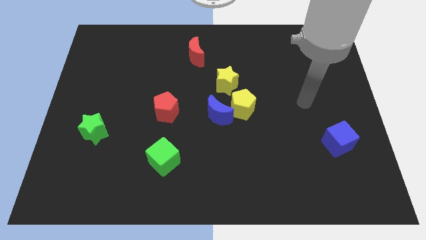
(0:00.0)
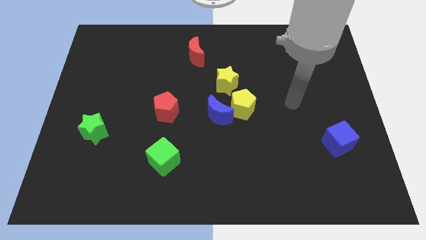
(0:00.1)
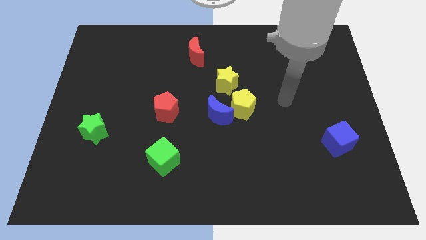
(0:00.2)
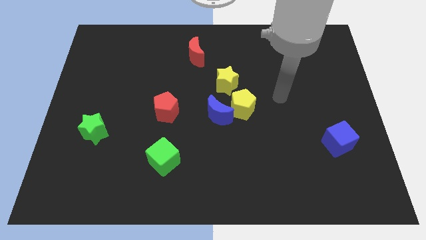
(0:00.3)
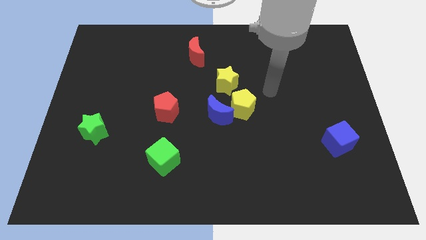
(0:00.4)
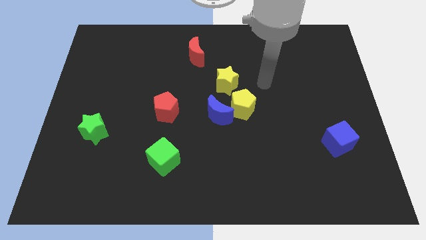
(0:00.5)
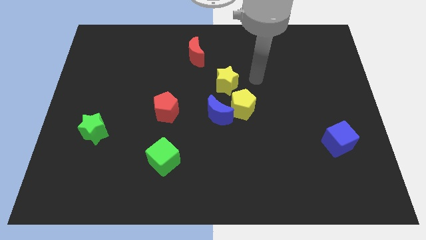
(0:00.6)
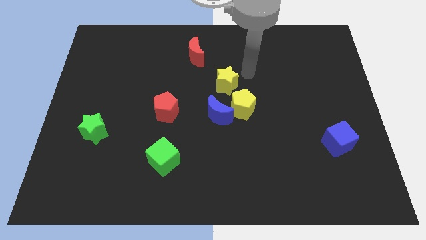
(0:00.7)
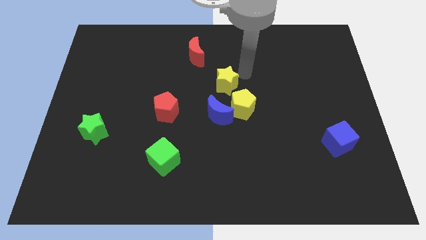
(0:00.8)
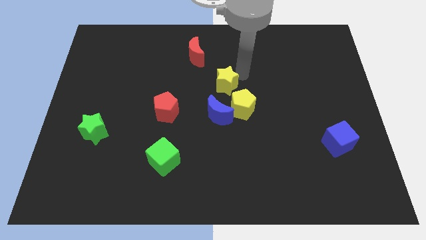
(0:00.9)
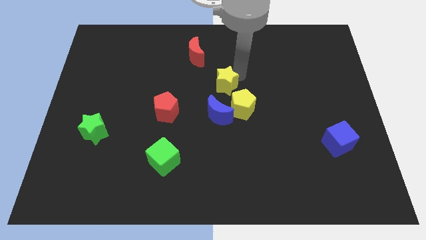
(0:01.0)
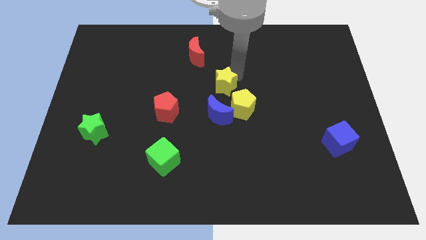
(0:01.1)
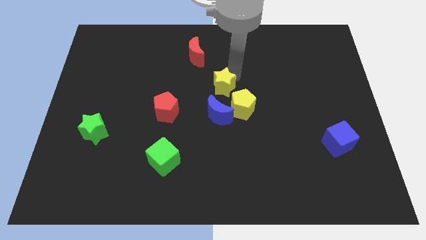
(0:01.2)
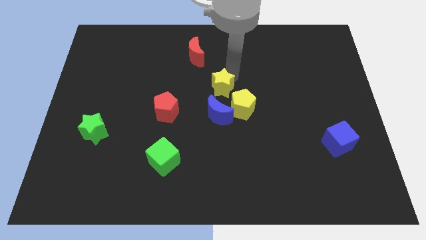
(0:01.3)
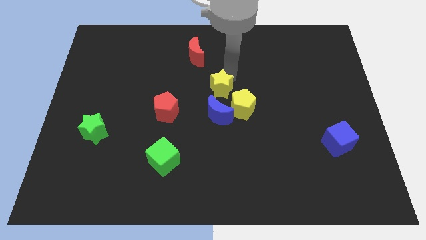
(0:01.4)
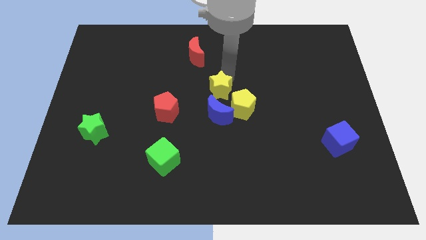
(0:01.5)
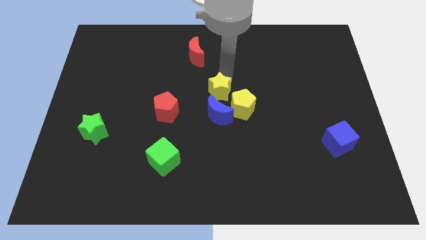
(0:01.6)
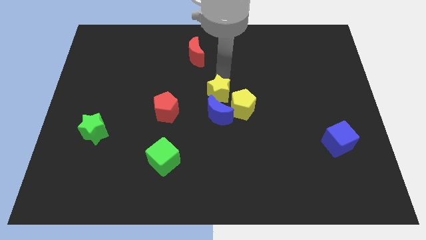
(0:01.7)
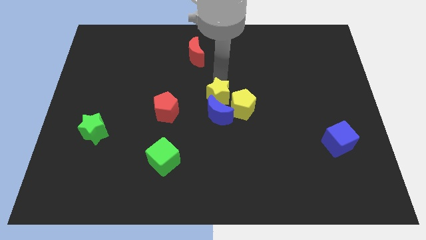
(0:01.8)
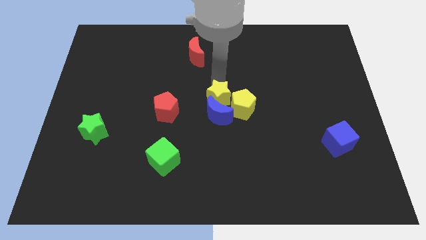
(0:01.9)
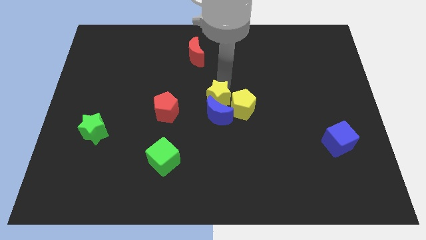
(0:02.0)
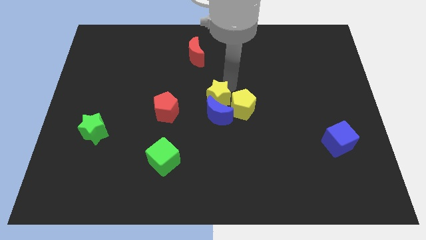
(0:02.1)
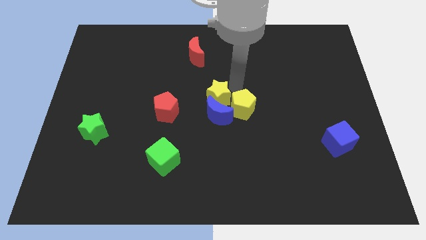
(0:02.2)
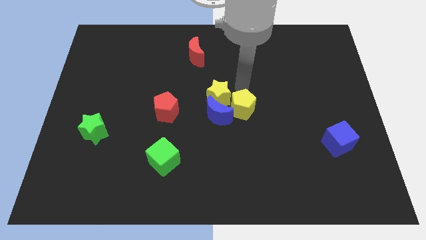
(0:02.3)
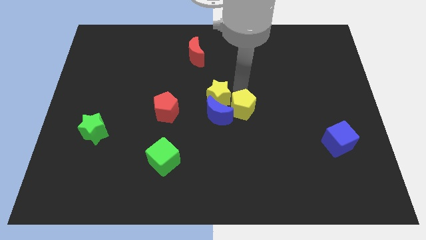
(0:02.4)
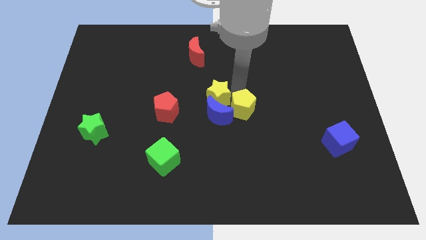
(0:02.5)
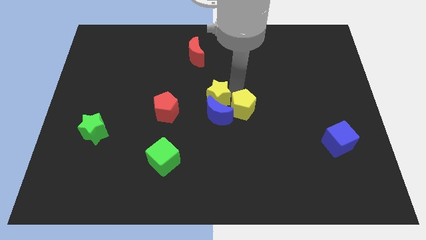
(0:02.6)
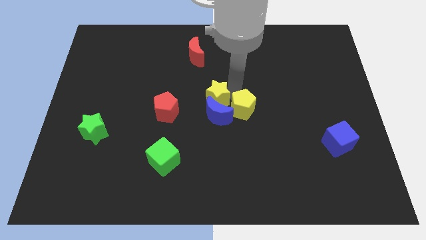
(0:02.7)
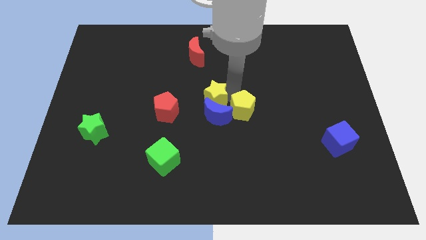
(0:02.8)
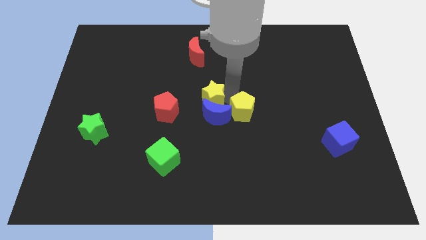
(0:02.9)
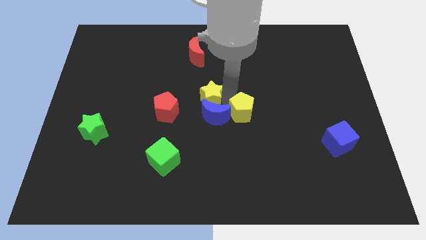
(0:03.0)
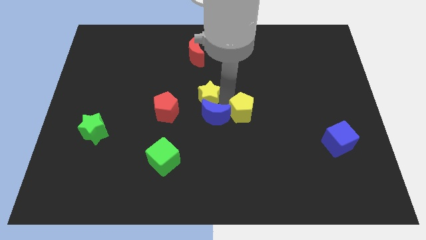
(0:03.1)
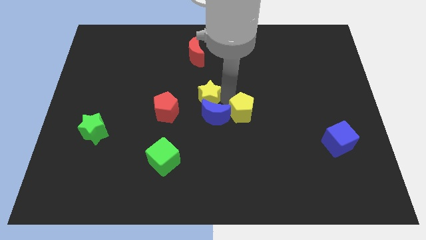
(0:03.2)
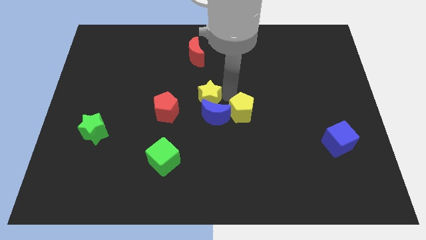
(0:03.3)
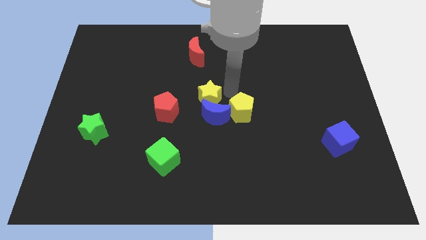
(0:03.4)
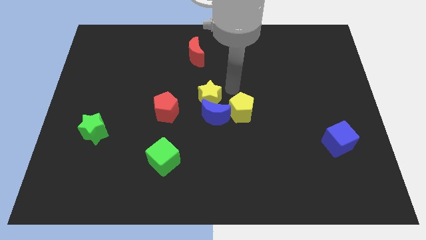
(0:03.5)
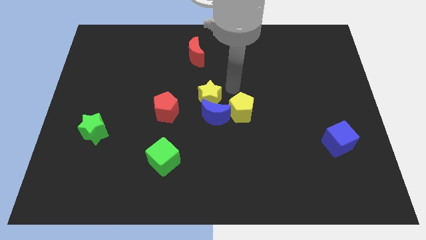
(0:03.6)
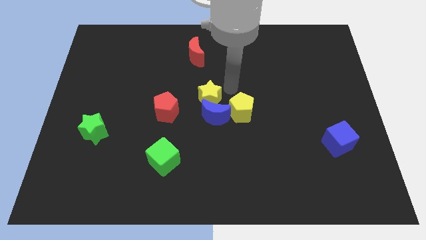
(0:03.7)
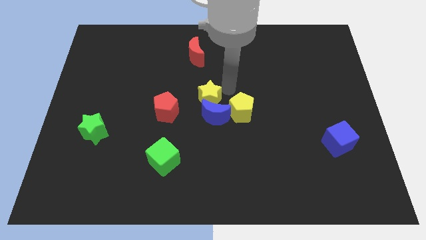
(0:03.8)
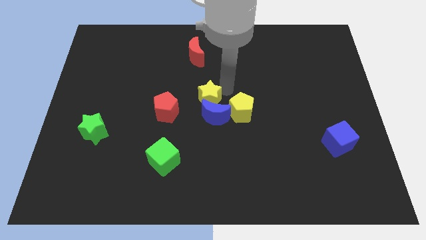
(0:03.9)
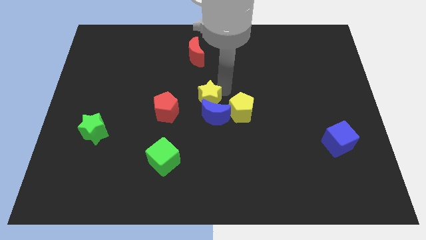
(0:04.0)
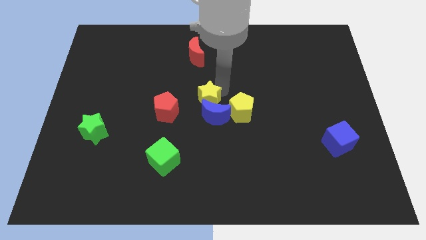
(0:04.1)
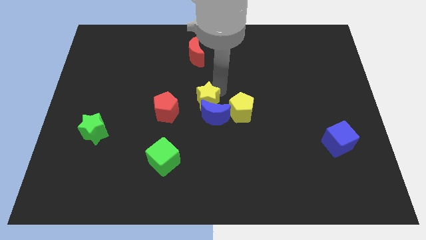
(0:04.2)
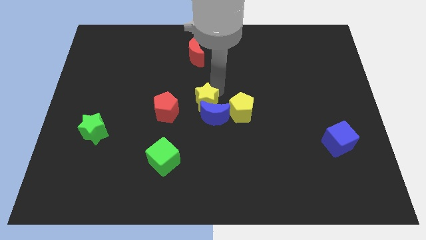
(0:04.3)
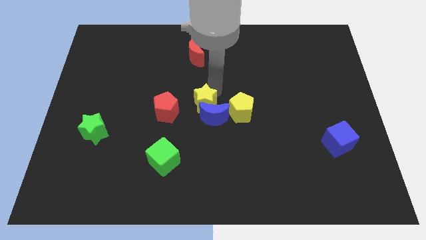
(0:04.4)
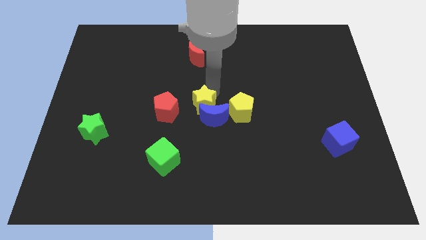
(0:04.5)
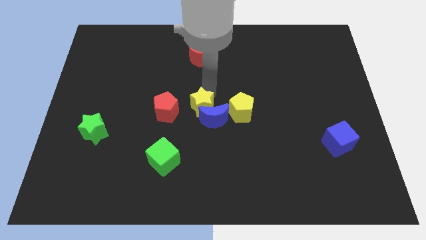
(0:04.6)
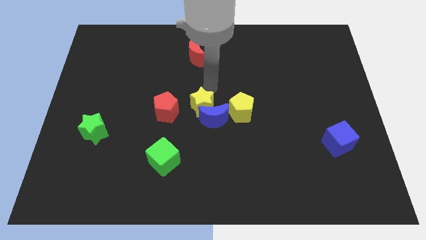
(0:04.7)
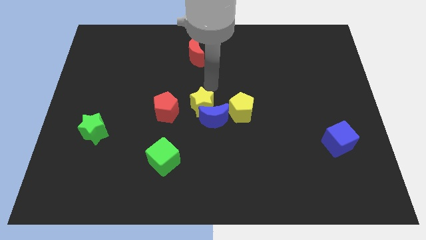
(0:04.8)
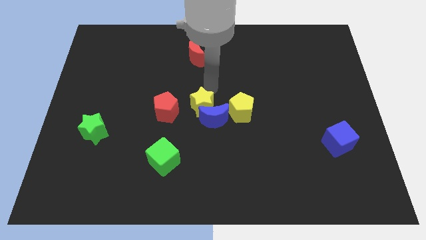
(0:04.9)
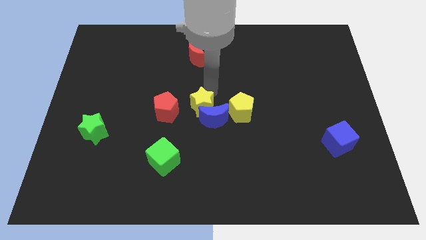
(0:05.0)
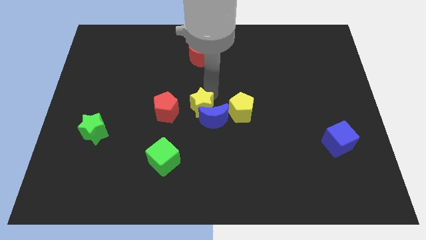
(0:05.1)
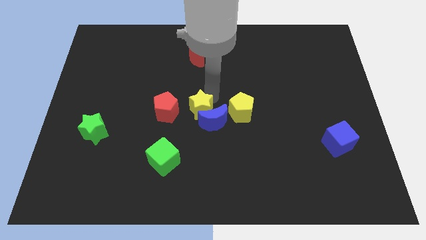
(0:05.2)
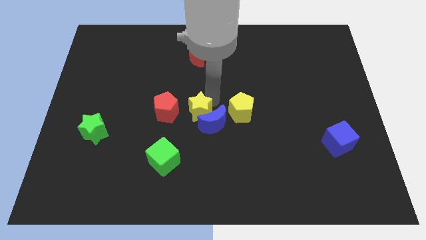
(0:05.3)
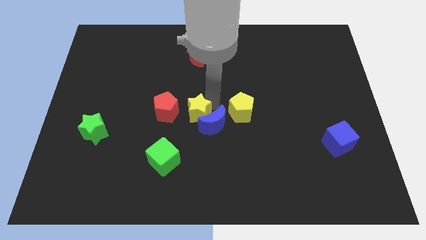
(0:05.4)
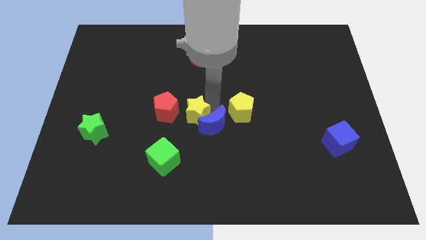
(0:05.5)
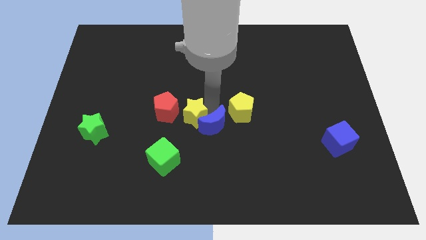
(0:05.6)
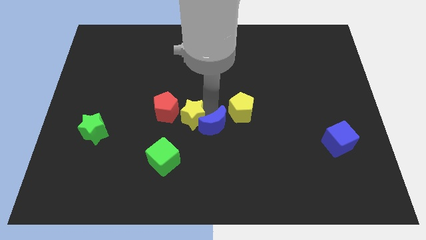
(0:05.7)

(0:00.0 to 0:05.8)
move the yellow star diagonally down and to the left of the blue moon

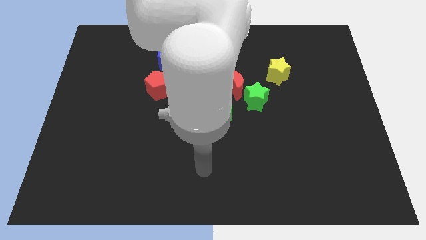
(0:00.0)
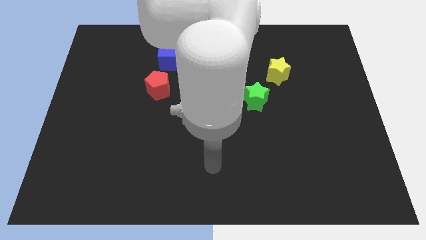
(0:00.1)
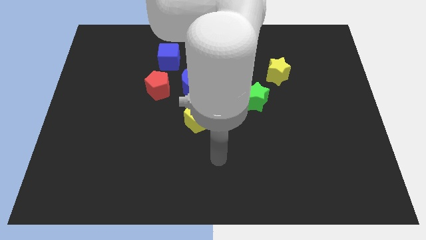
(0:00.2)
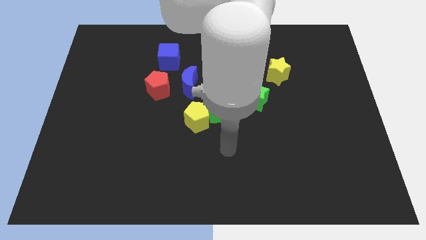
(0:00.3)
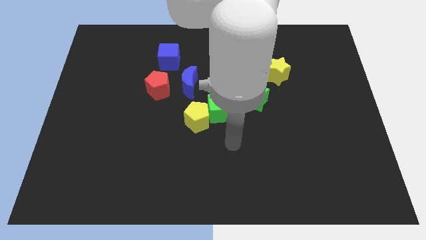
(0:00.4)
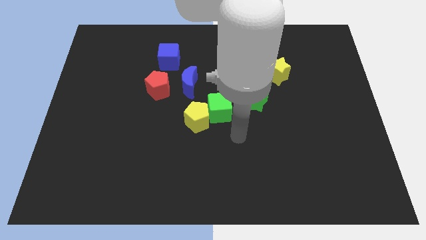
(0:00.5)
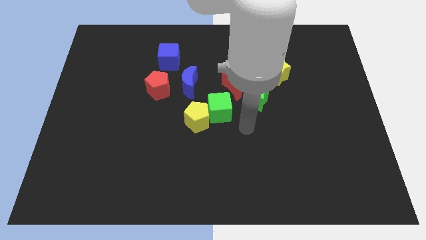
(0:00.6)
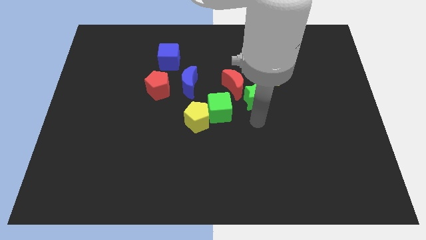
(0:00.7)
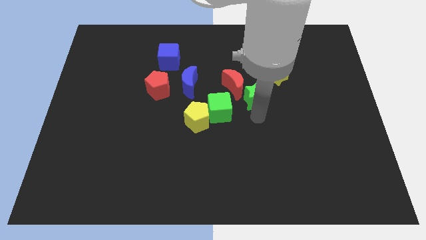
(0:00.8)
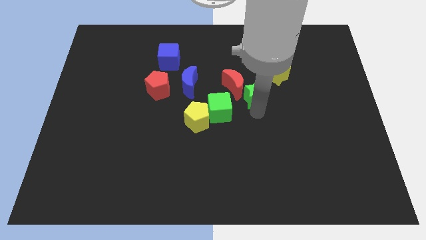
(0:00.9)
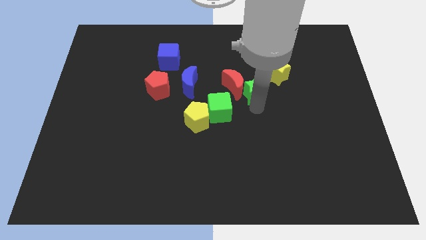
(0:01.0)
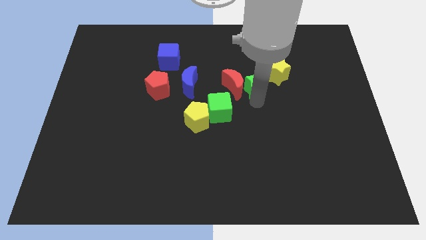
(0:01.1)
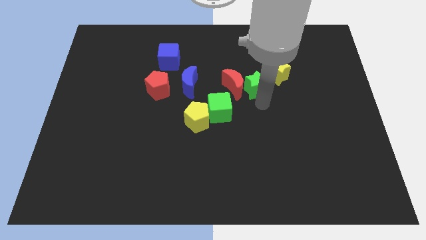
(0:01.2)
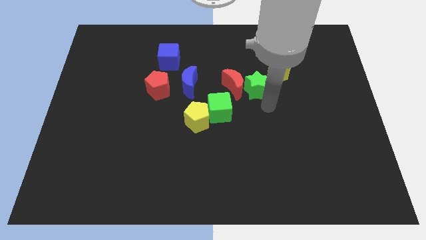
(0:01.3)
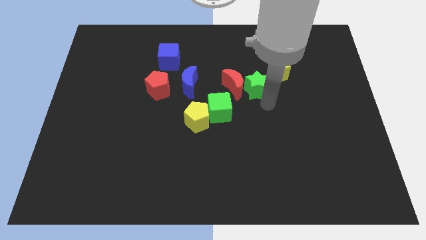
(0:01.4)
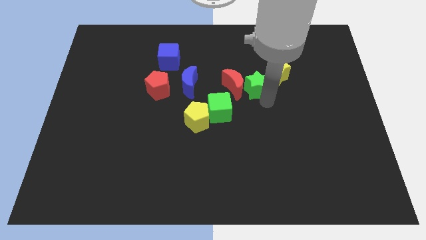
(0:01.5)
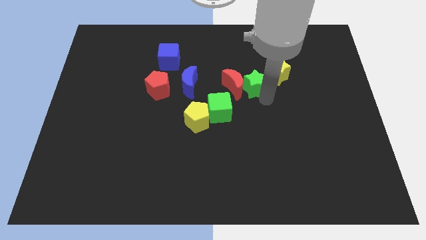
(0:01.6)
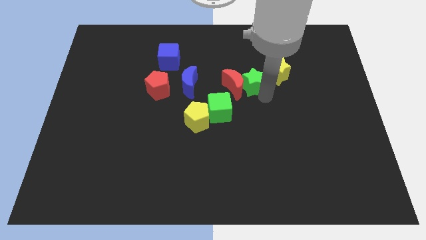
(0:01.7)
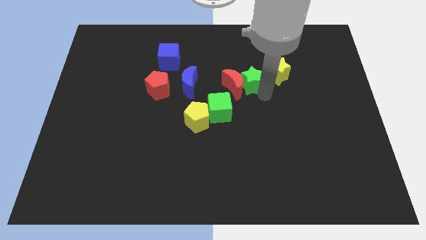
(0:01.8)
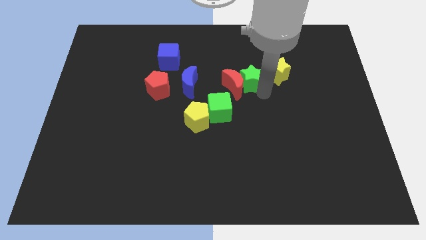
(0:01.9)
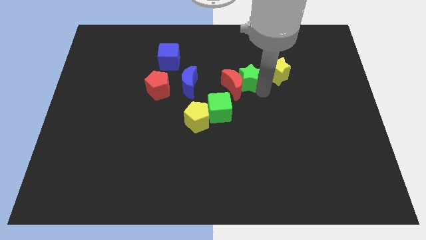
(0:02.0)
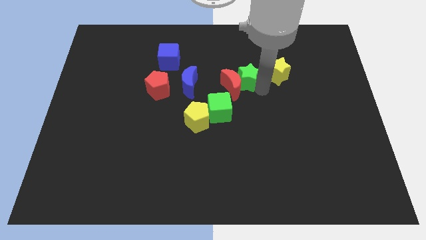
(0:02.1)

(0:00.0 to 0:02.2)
push the green star above the red moon
